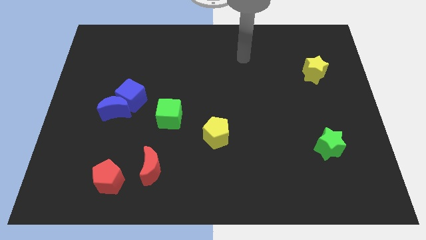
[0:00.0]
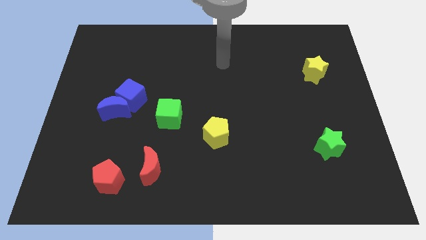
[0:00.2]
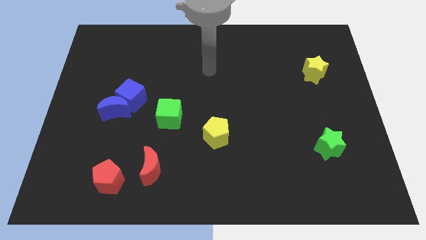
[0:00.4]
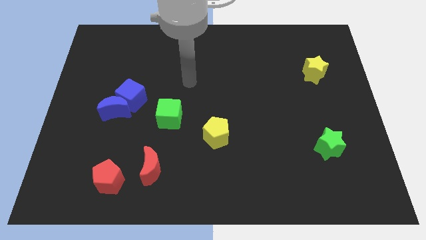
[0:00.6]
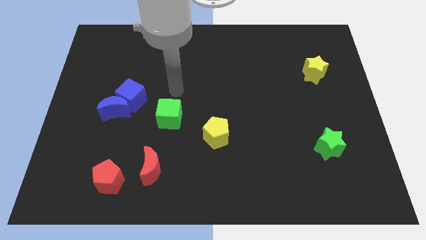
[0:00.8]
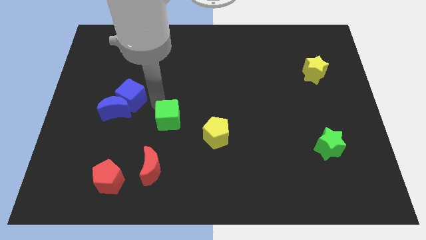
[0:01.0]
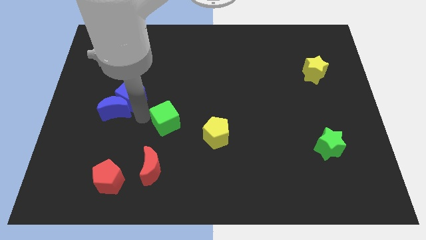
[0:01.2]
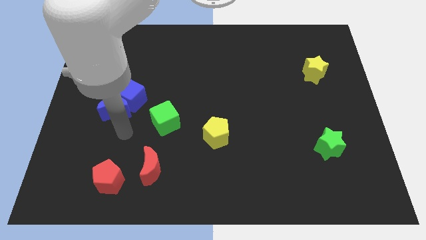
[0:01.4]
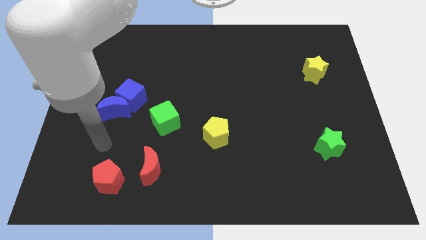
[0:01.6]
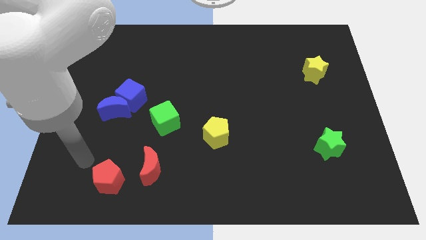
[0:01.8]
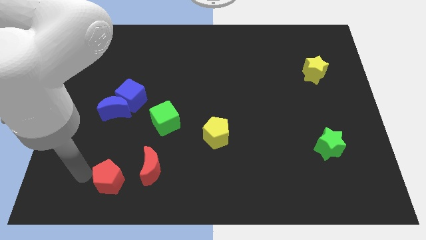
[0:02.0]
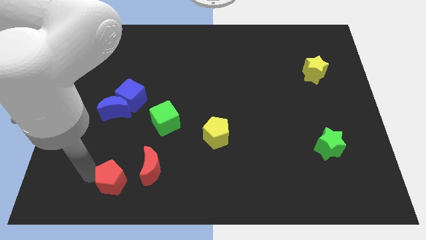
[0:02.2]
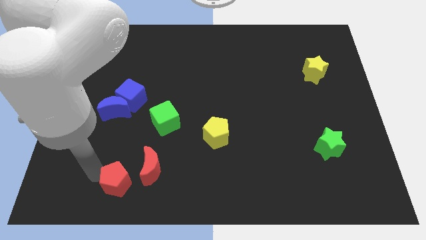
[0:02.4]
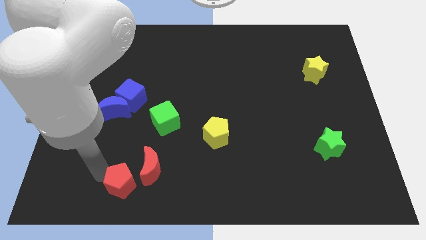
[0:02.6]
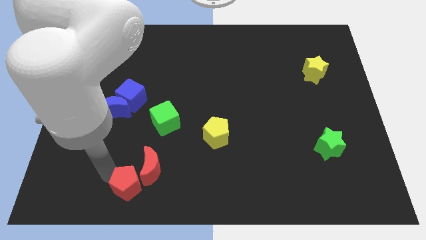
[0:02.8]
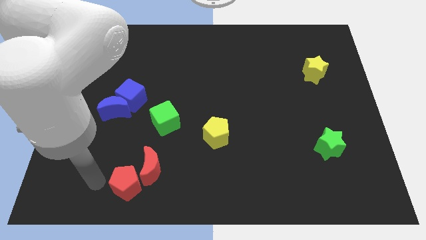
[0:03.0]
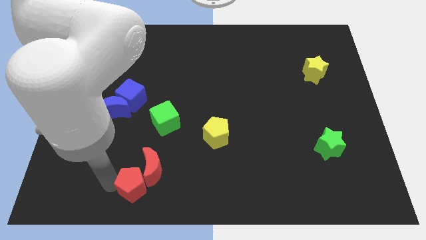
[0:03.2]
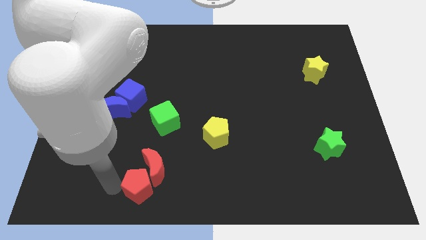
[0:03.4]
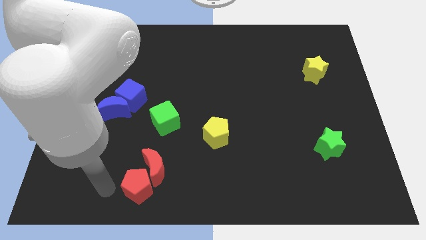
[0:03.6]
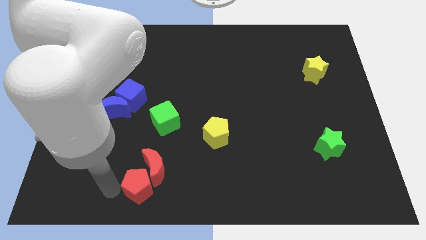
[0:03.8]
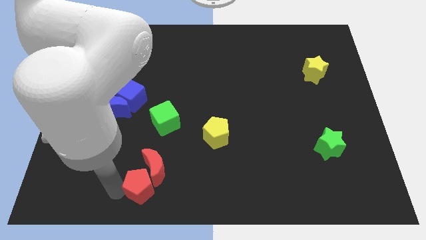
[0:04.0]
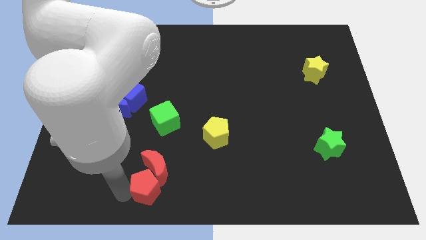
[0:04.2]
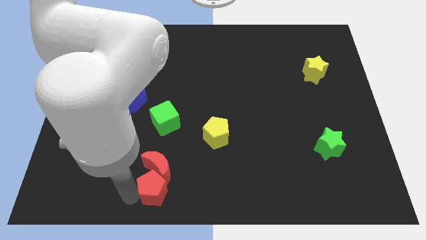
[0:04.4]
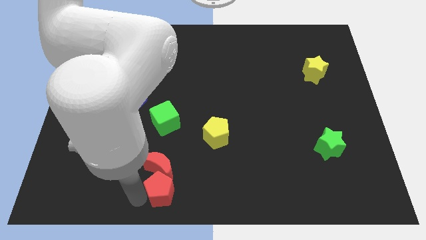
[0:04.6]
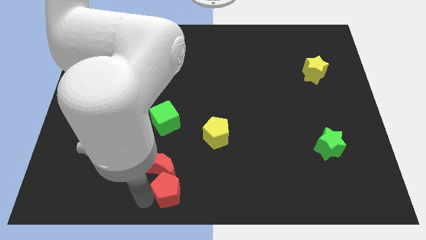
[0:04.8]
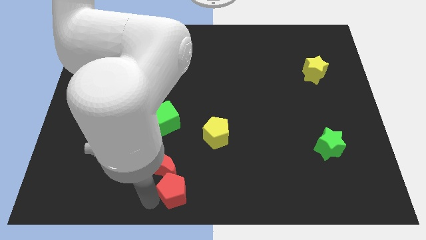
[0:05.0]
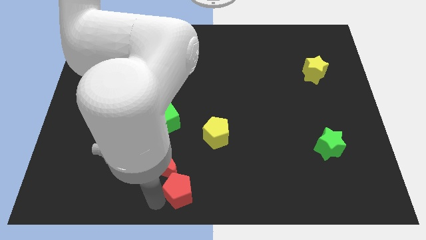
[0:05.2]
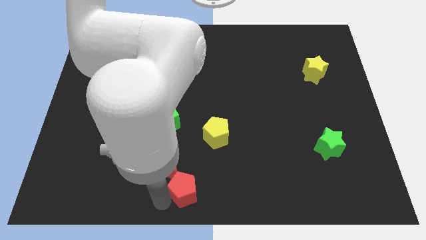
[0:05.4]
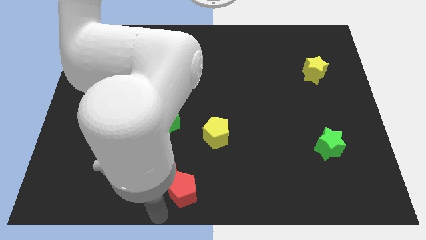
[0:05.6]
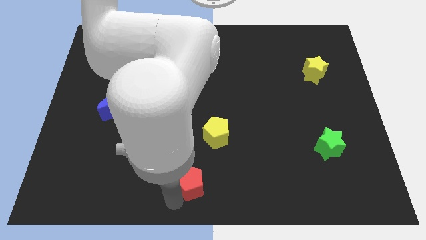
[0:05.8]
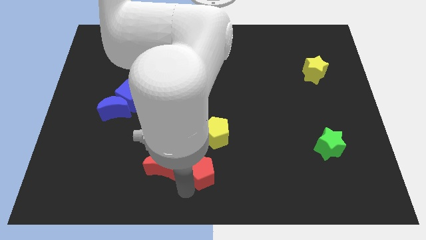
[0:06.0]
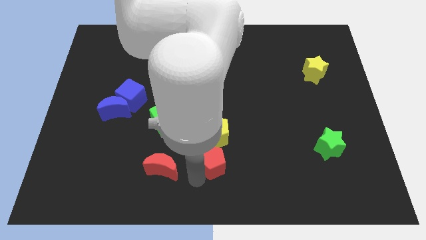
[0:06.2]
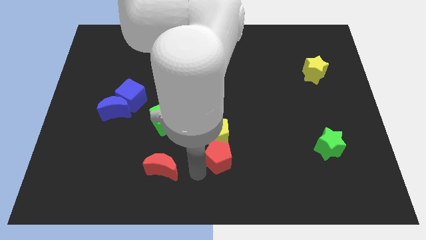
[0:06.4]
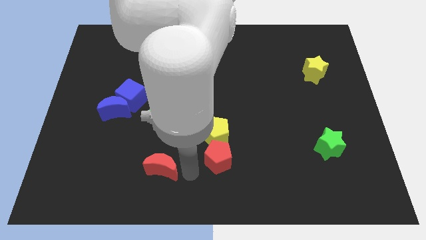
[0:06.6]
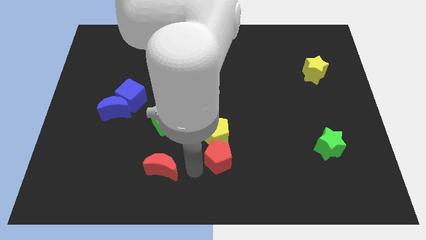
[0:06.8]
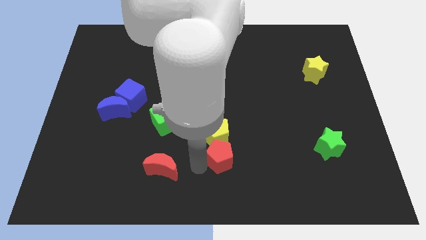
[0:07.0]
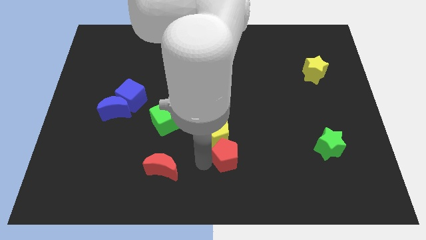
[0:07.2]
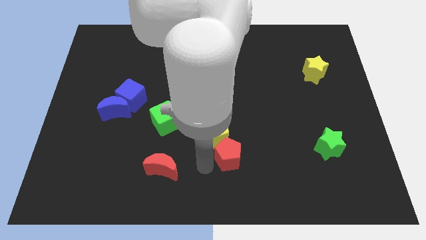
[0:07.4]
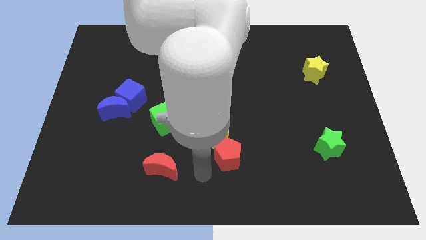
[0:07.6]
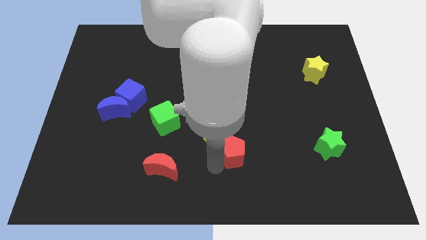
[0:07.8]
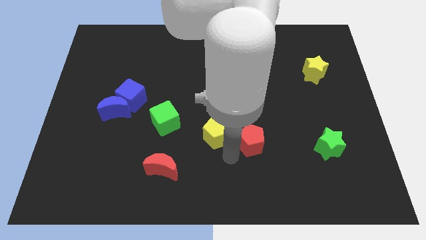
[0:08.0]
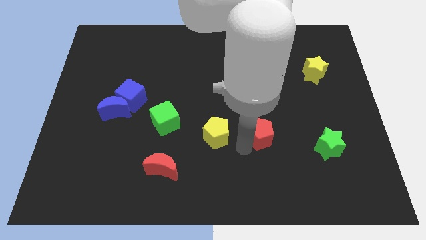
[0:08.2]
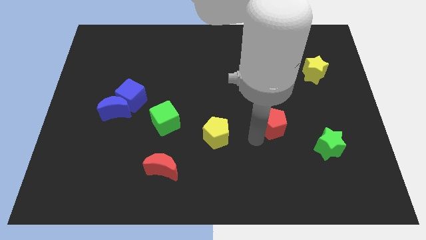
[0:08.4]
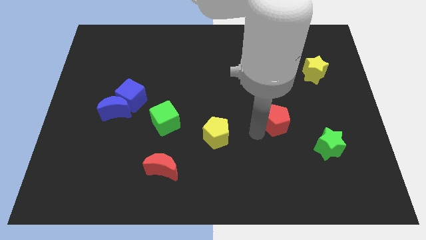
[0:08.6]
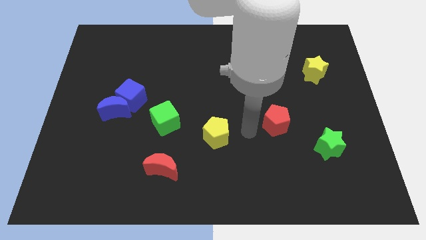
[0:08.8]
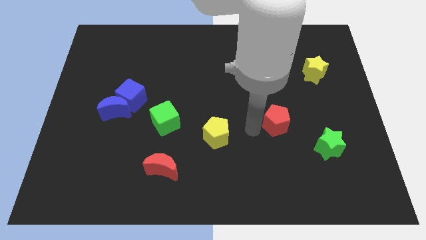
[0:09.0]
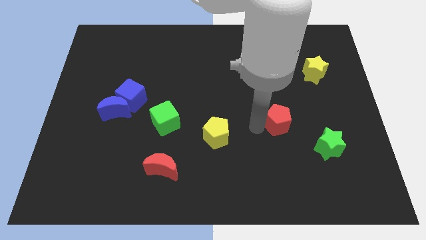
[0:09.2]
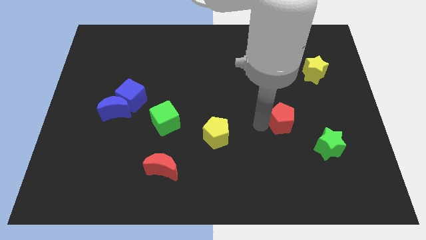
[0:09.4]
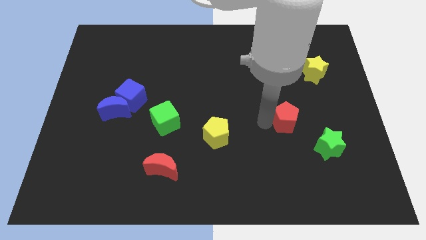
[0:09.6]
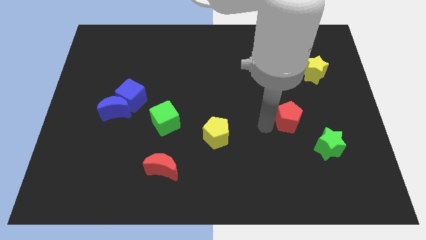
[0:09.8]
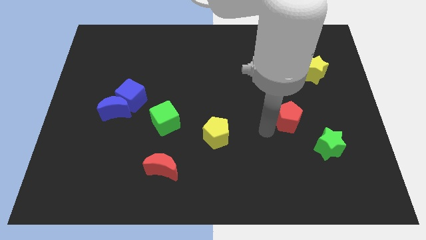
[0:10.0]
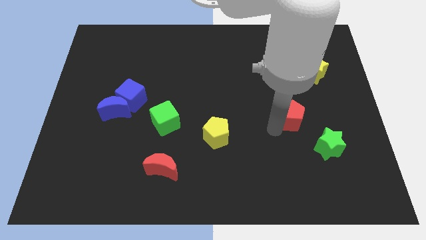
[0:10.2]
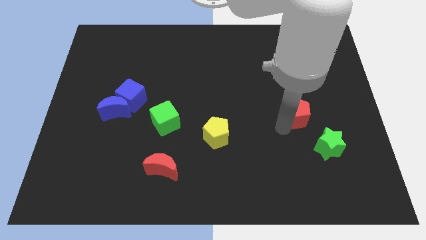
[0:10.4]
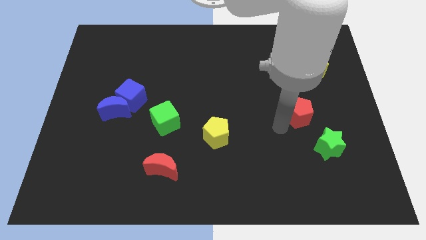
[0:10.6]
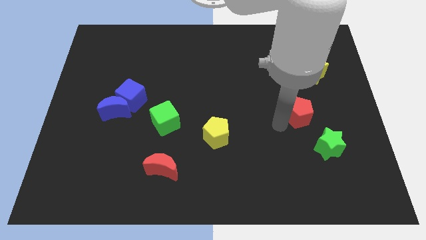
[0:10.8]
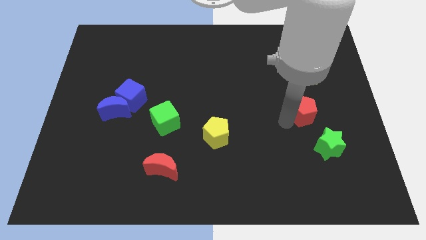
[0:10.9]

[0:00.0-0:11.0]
push the red pentagon below the yellow star

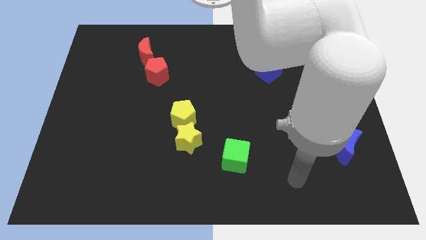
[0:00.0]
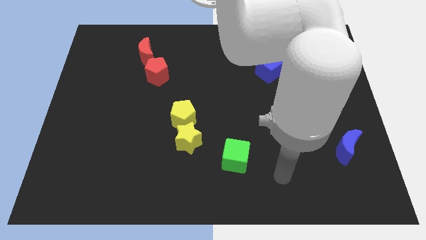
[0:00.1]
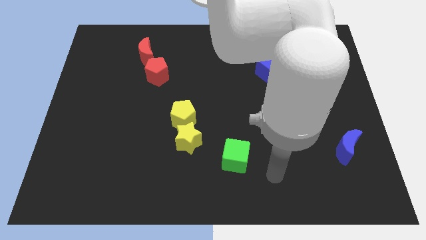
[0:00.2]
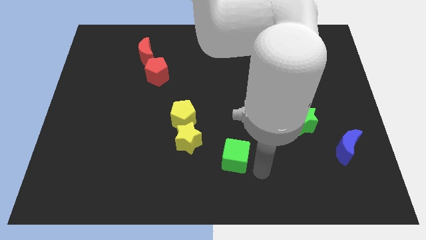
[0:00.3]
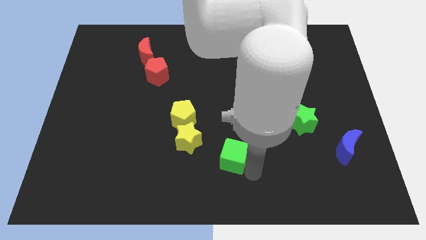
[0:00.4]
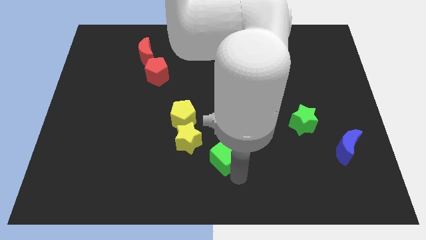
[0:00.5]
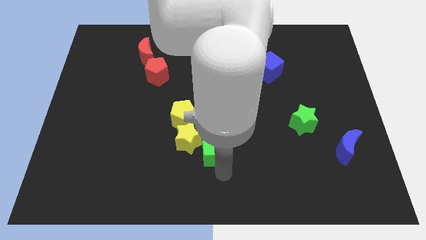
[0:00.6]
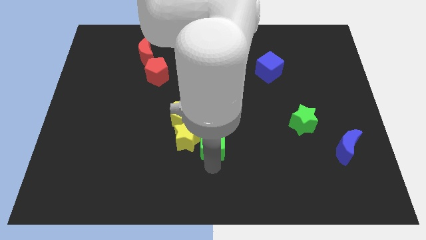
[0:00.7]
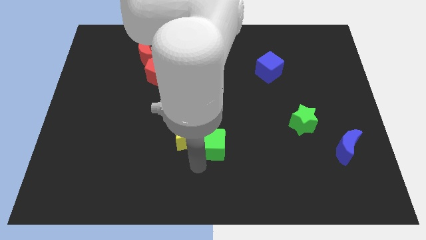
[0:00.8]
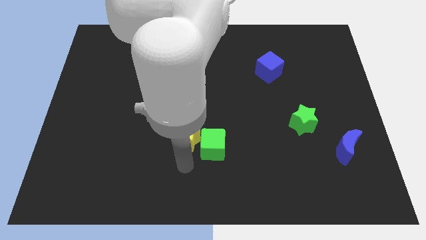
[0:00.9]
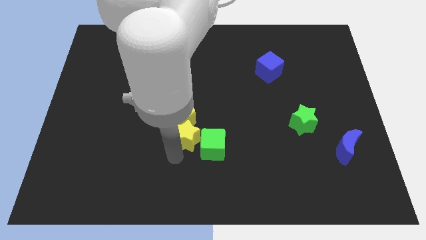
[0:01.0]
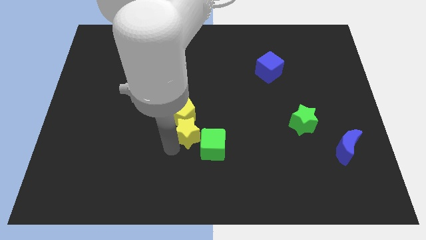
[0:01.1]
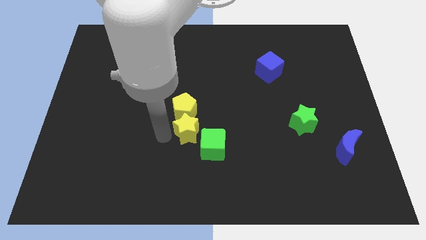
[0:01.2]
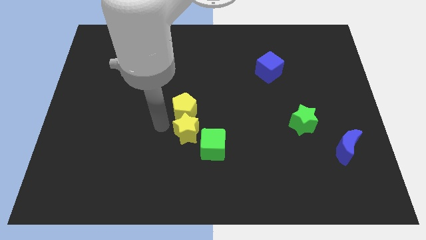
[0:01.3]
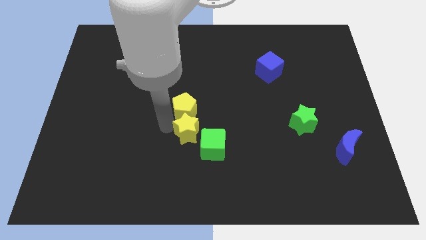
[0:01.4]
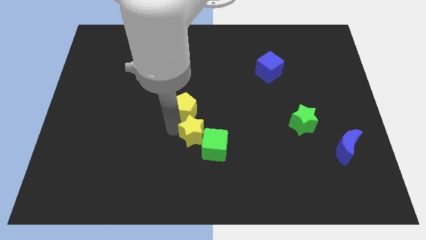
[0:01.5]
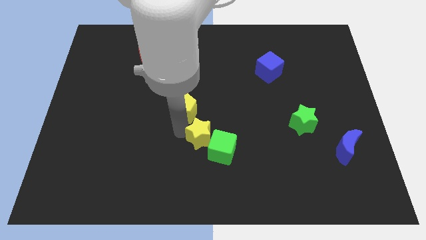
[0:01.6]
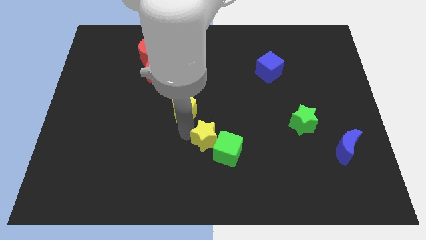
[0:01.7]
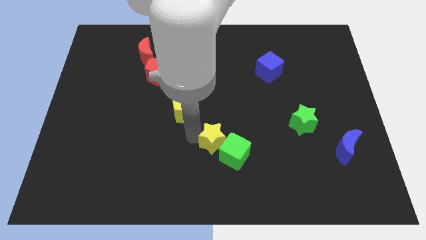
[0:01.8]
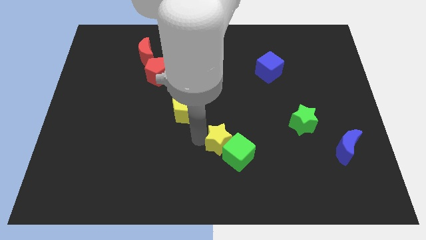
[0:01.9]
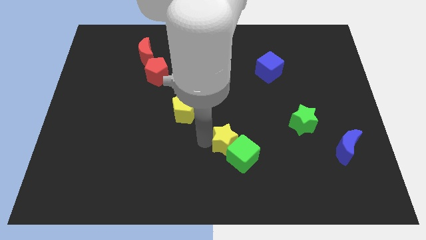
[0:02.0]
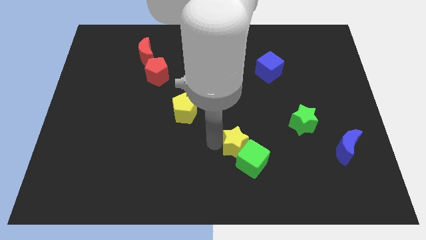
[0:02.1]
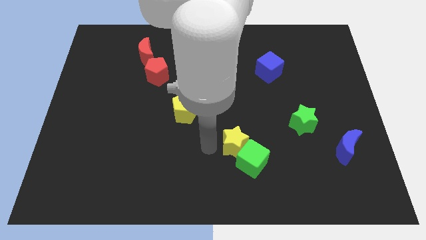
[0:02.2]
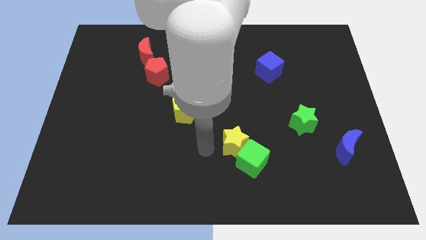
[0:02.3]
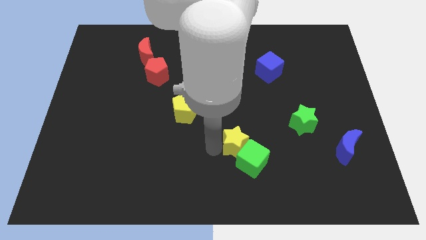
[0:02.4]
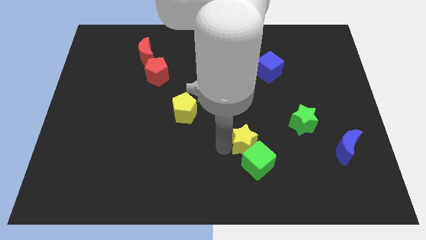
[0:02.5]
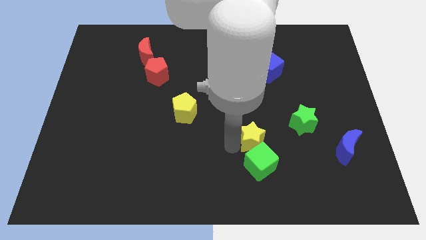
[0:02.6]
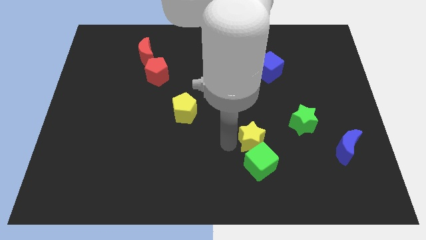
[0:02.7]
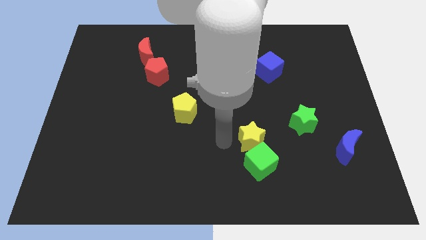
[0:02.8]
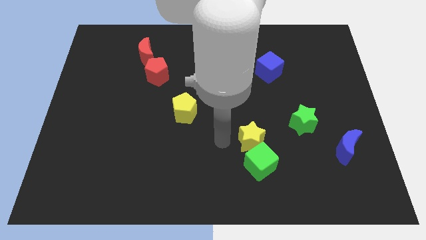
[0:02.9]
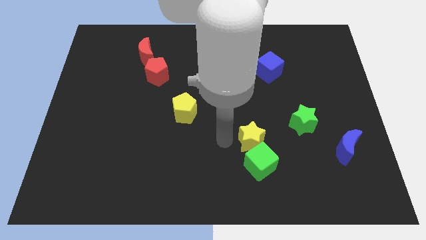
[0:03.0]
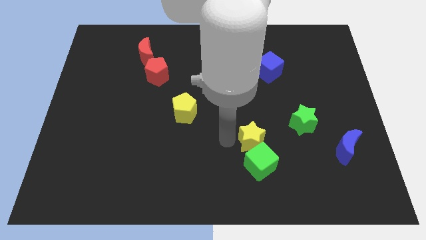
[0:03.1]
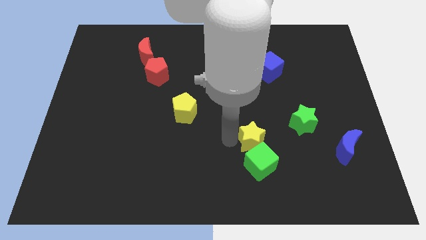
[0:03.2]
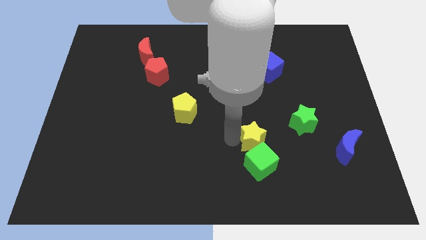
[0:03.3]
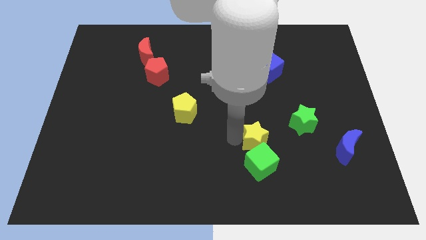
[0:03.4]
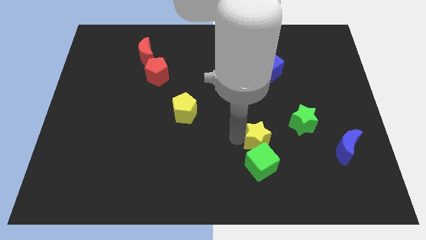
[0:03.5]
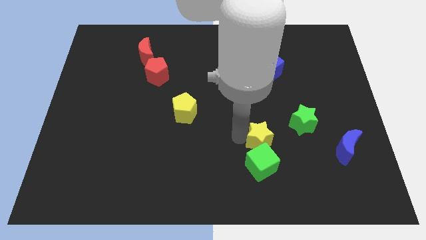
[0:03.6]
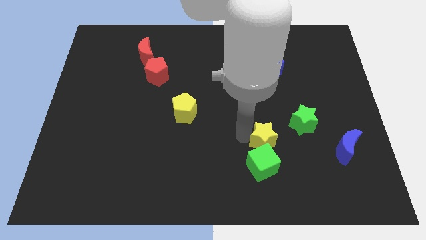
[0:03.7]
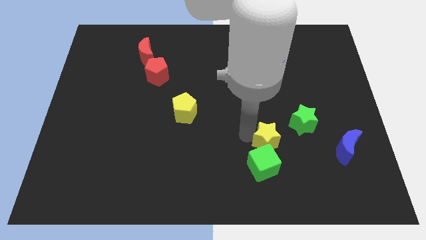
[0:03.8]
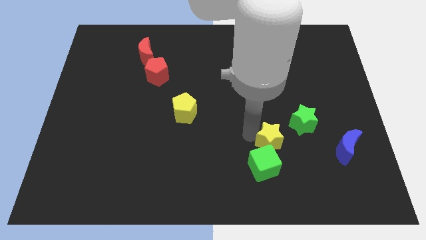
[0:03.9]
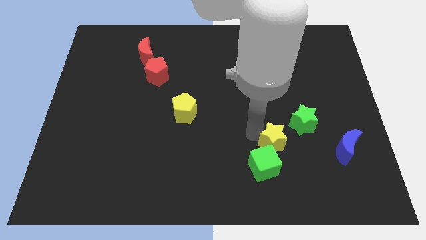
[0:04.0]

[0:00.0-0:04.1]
move the yellow star just left of the blue moon
